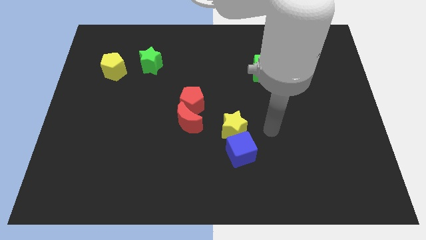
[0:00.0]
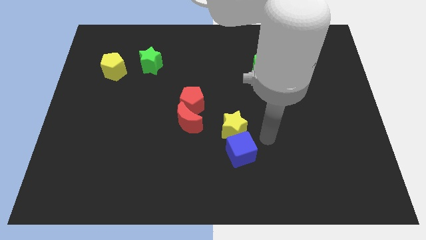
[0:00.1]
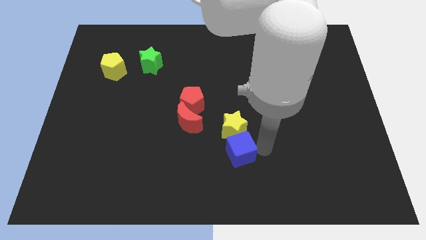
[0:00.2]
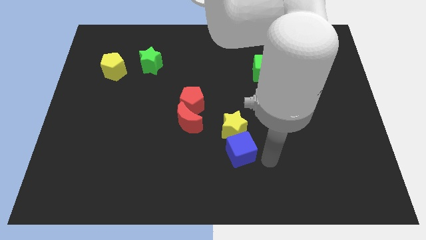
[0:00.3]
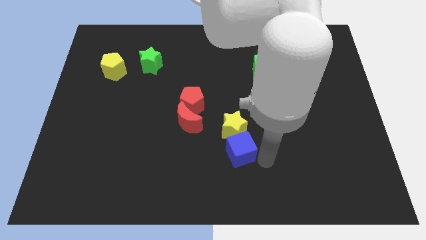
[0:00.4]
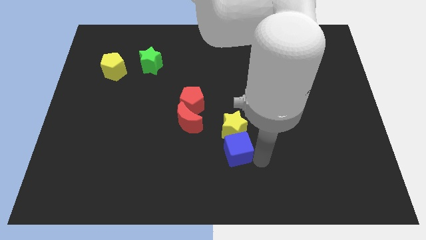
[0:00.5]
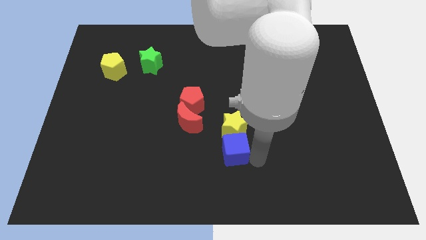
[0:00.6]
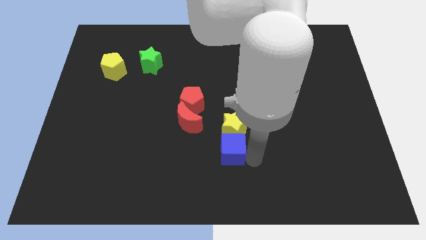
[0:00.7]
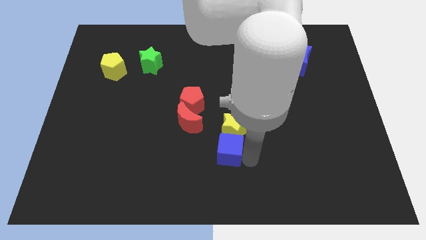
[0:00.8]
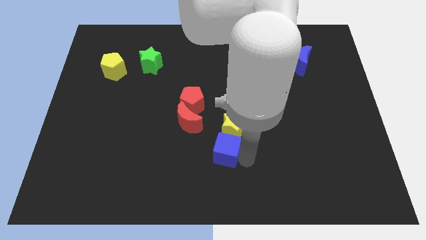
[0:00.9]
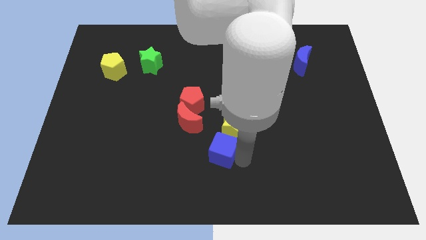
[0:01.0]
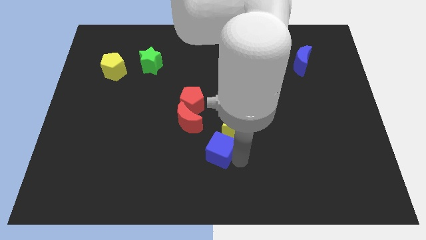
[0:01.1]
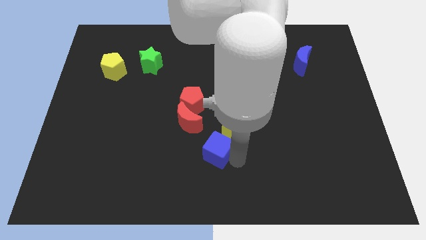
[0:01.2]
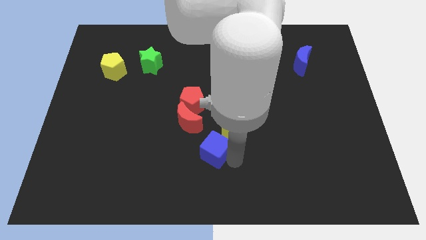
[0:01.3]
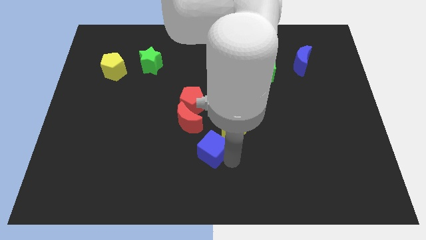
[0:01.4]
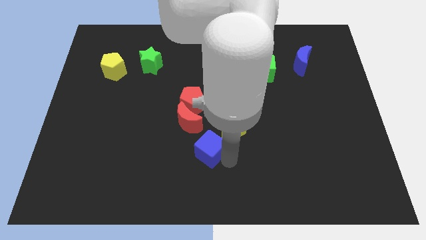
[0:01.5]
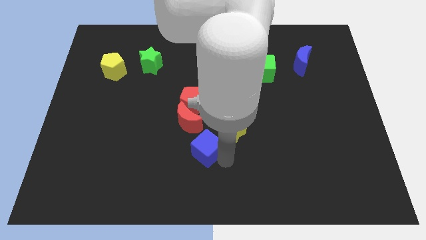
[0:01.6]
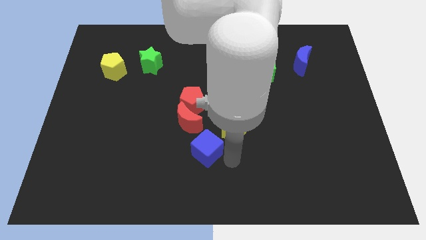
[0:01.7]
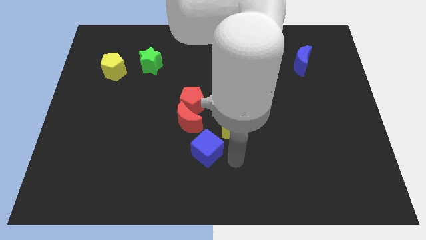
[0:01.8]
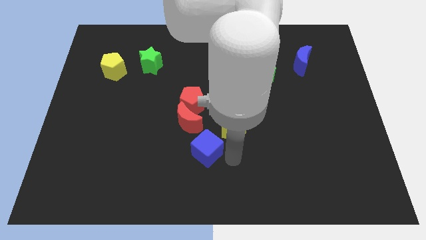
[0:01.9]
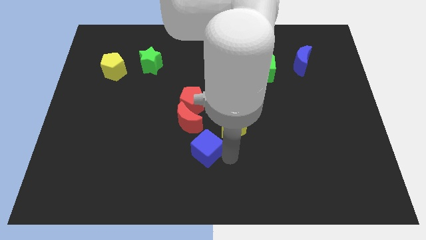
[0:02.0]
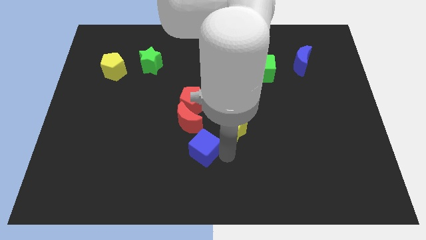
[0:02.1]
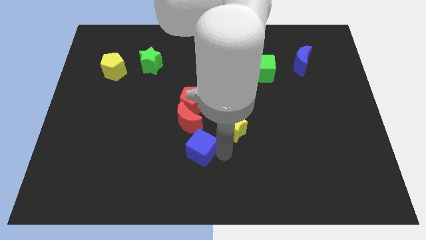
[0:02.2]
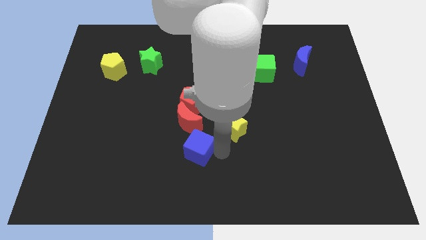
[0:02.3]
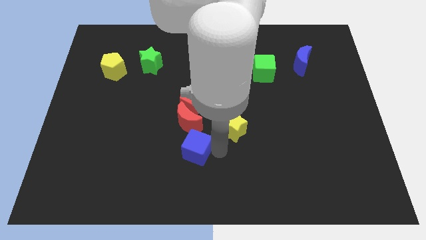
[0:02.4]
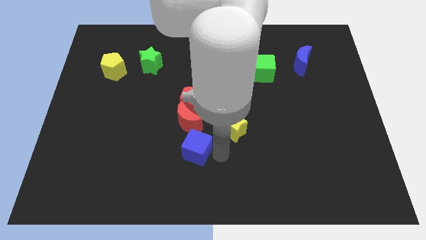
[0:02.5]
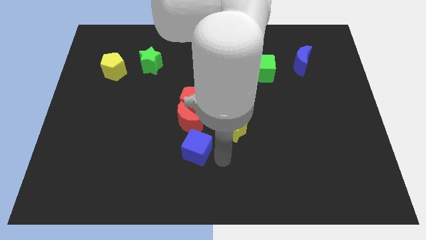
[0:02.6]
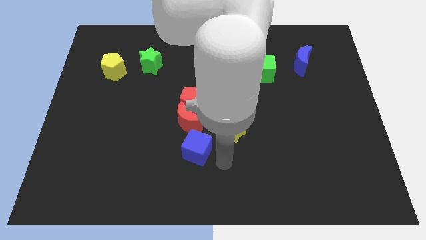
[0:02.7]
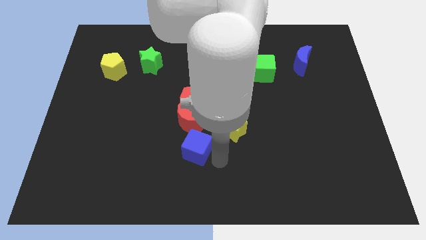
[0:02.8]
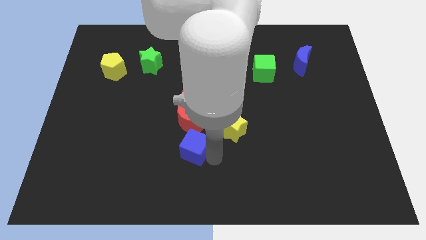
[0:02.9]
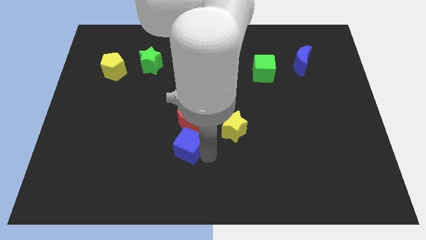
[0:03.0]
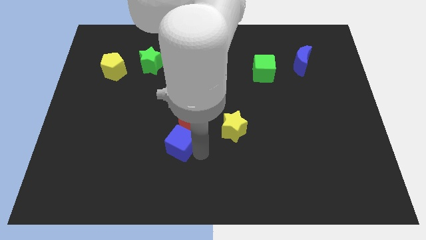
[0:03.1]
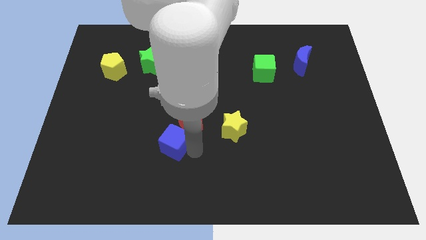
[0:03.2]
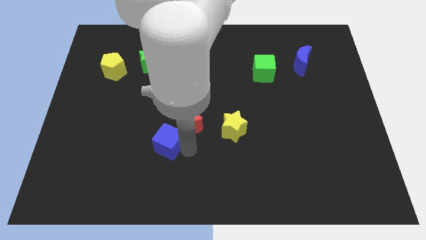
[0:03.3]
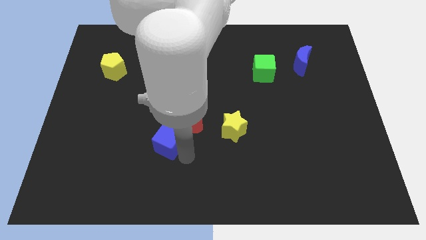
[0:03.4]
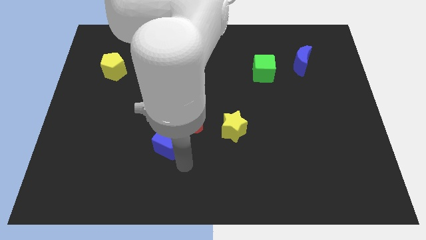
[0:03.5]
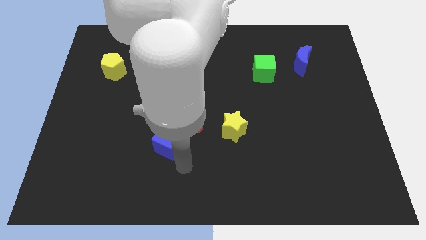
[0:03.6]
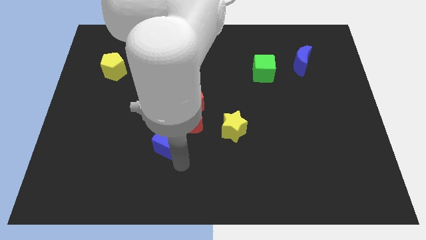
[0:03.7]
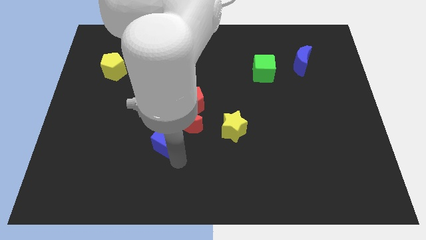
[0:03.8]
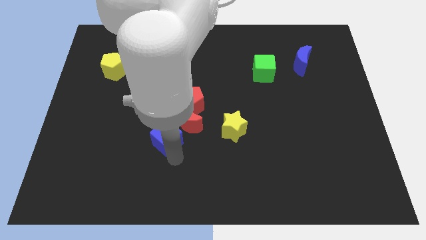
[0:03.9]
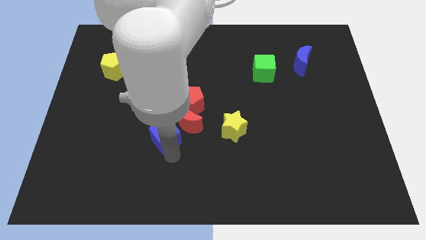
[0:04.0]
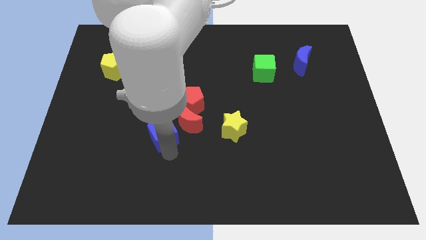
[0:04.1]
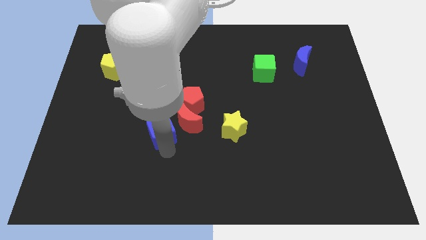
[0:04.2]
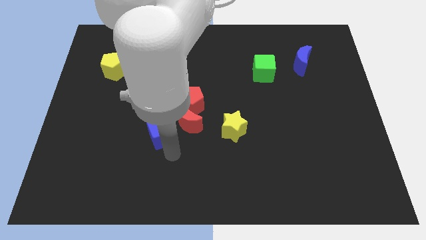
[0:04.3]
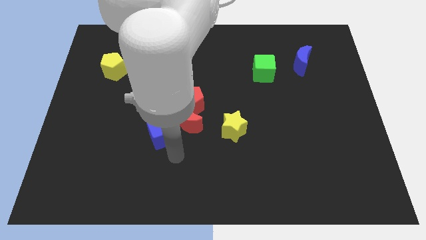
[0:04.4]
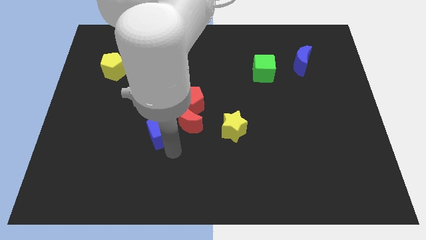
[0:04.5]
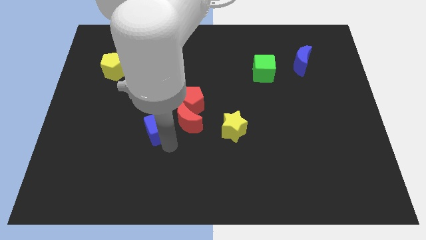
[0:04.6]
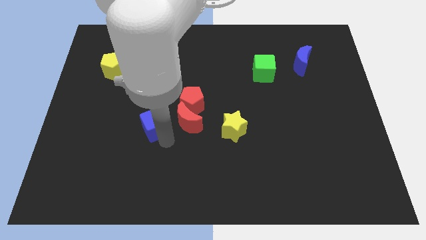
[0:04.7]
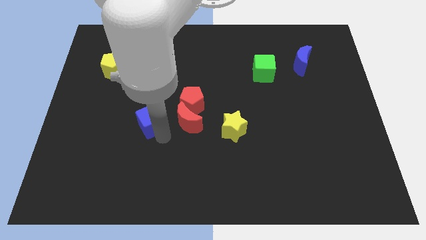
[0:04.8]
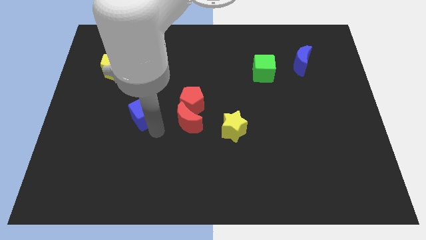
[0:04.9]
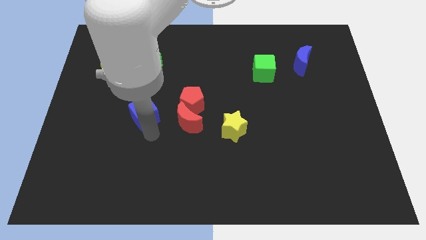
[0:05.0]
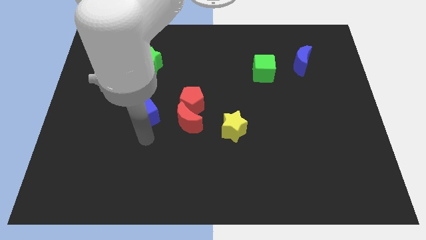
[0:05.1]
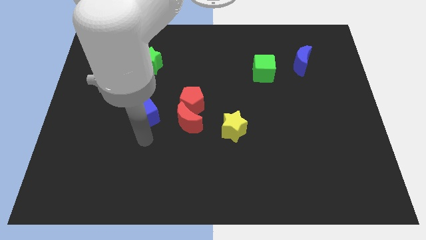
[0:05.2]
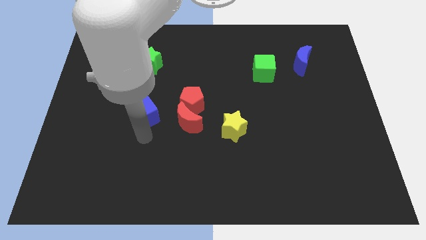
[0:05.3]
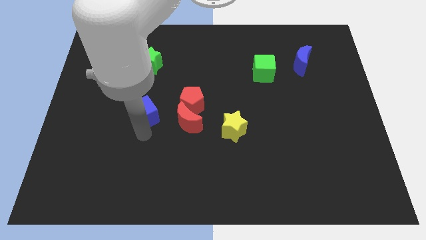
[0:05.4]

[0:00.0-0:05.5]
move the blue cube below the green star

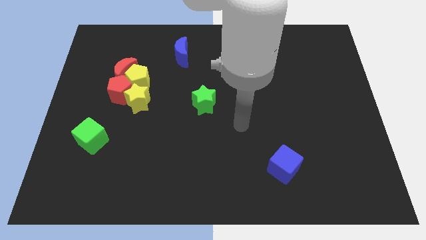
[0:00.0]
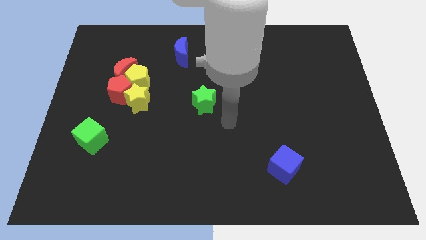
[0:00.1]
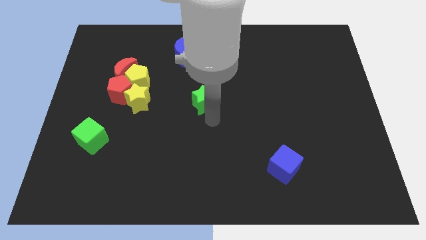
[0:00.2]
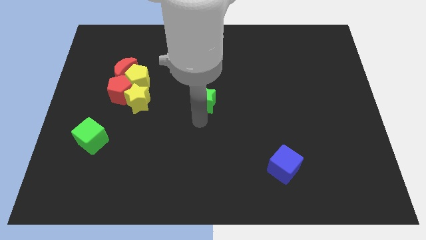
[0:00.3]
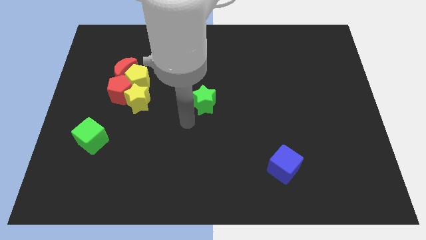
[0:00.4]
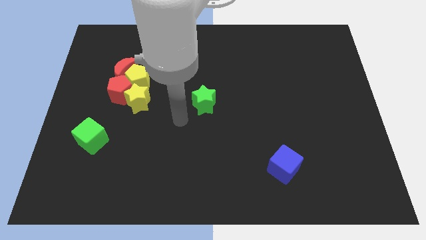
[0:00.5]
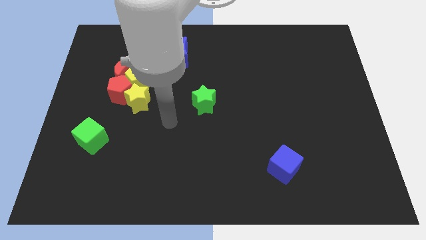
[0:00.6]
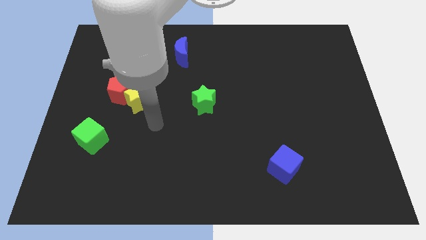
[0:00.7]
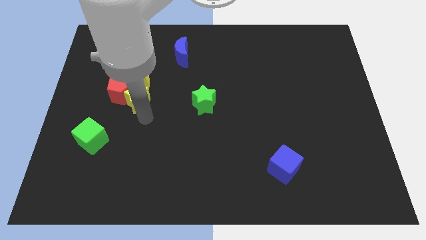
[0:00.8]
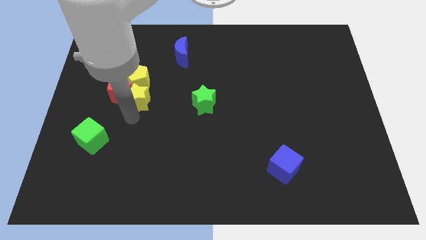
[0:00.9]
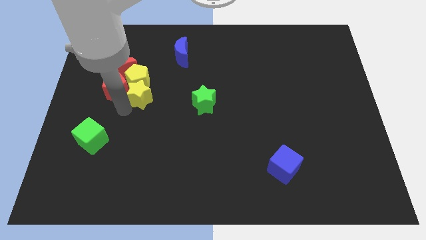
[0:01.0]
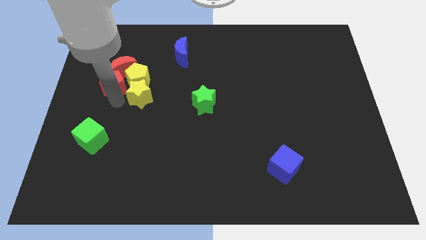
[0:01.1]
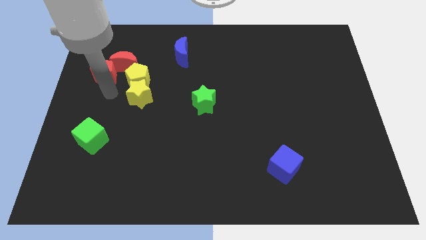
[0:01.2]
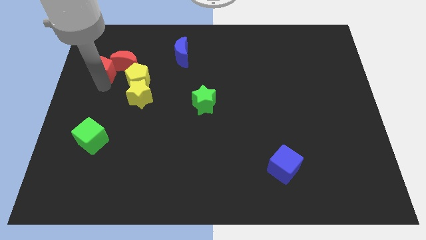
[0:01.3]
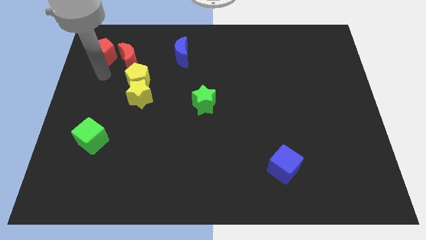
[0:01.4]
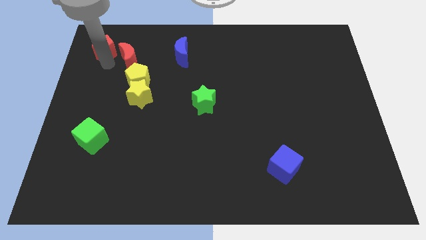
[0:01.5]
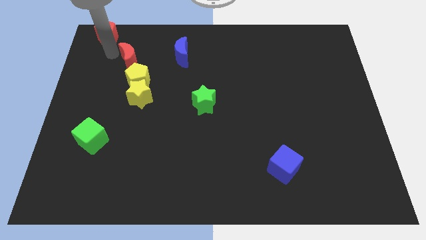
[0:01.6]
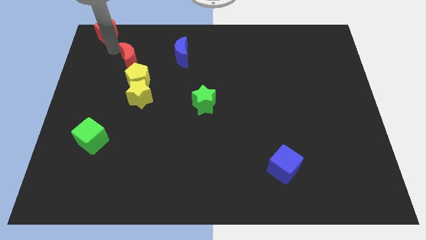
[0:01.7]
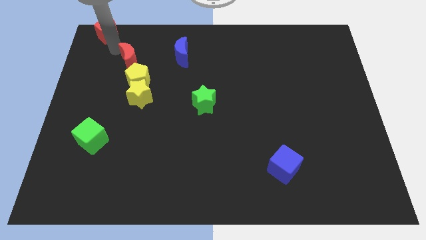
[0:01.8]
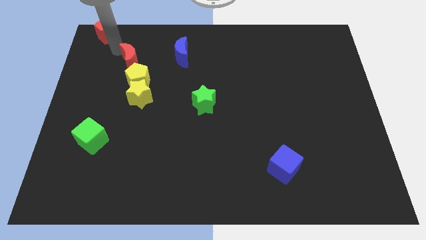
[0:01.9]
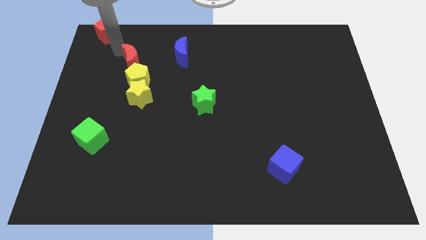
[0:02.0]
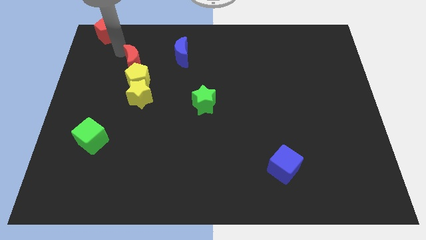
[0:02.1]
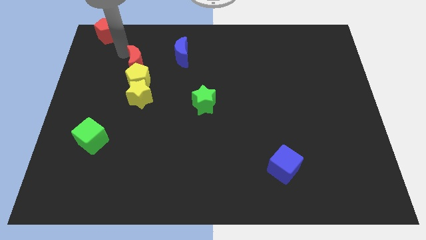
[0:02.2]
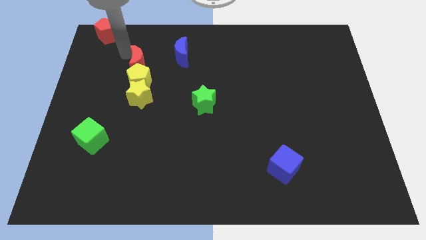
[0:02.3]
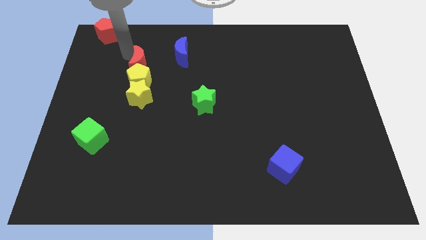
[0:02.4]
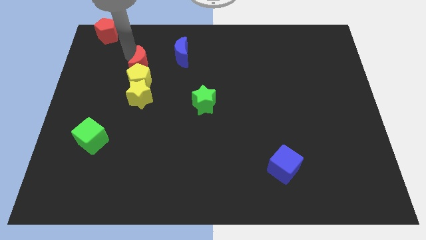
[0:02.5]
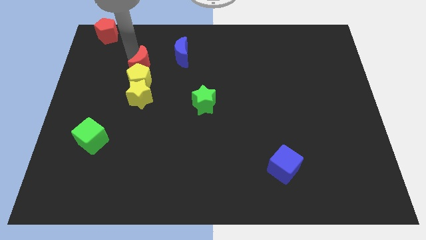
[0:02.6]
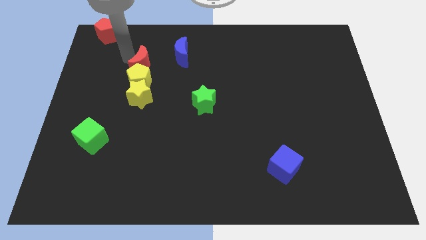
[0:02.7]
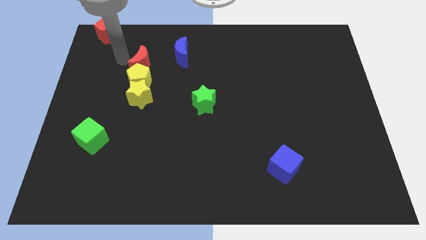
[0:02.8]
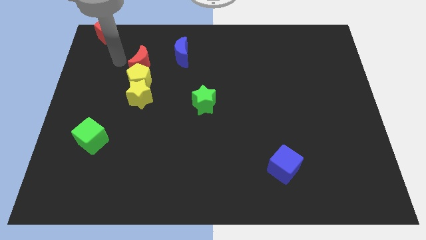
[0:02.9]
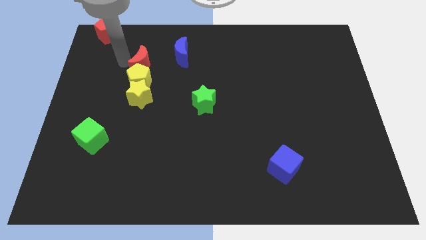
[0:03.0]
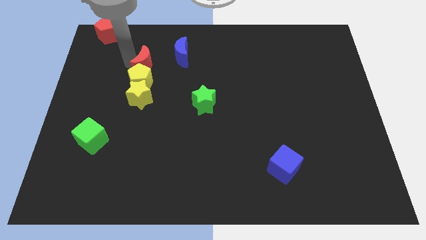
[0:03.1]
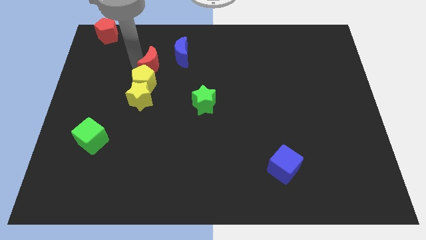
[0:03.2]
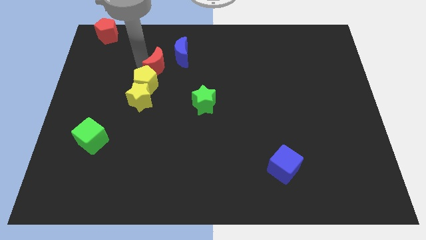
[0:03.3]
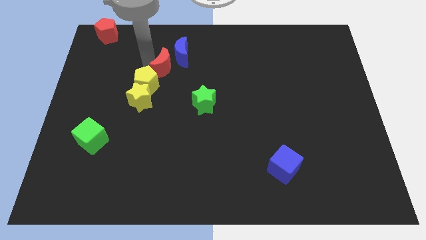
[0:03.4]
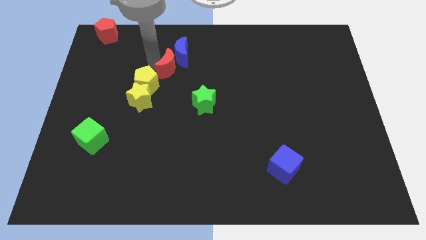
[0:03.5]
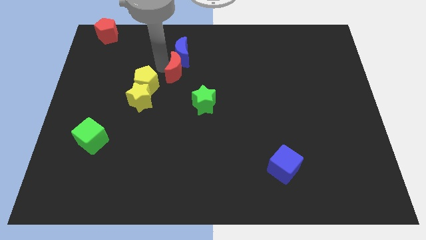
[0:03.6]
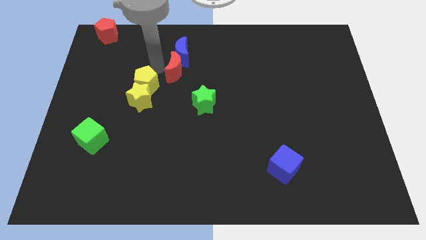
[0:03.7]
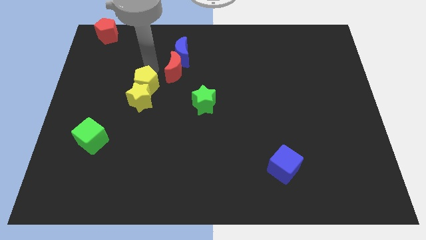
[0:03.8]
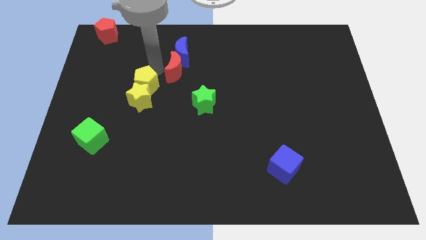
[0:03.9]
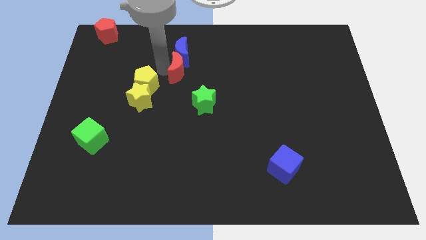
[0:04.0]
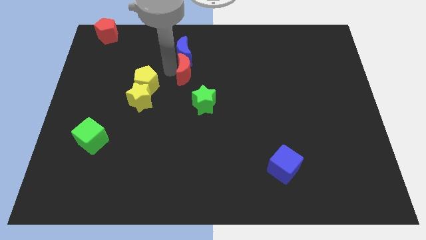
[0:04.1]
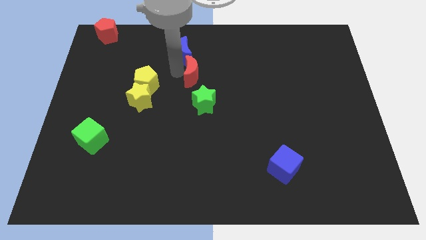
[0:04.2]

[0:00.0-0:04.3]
put the red moon to the top side of the green star
